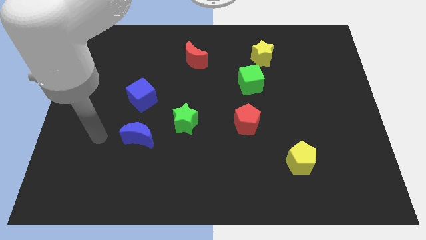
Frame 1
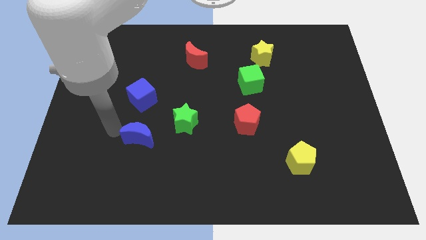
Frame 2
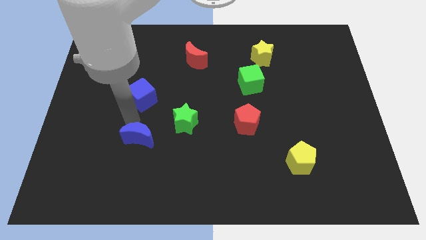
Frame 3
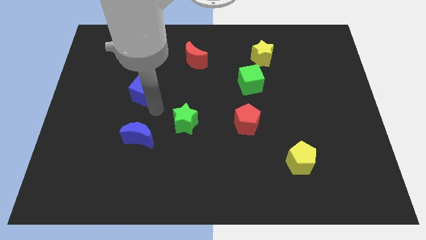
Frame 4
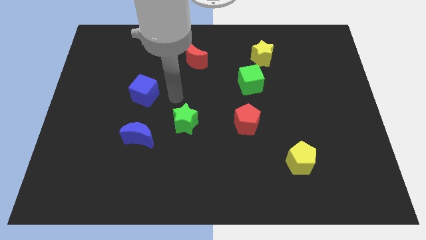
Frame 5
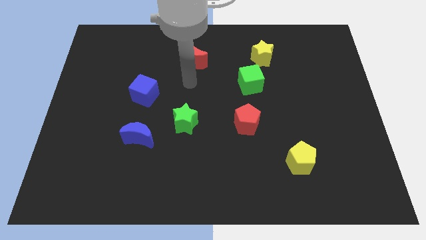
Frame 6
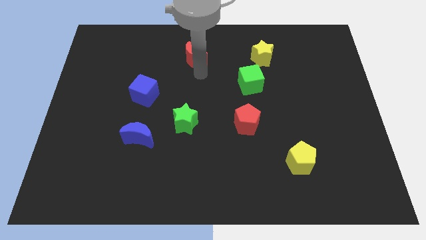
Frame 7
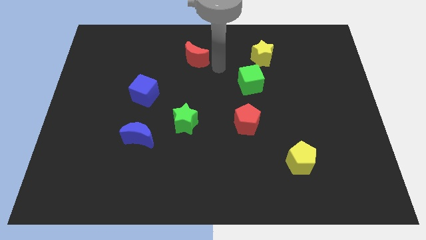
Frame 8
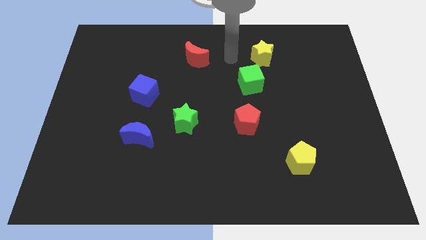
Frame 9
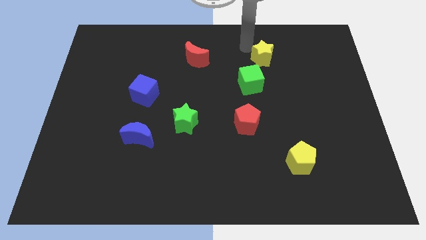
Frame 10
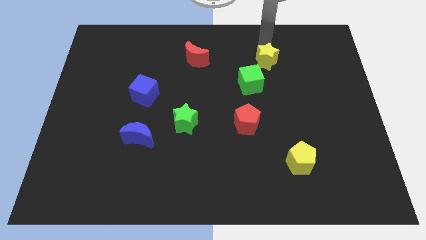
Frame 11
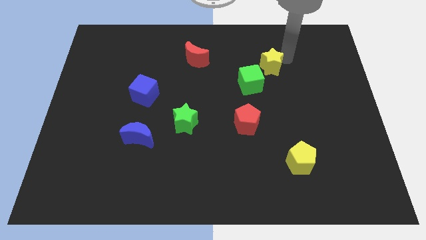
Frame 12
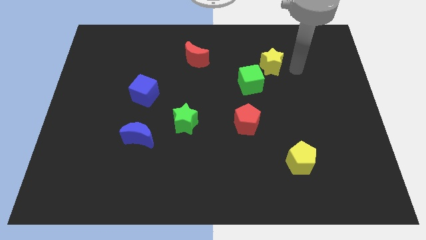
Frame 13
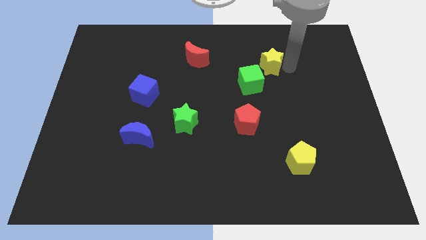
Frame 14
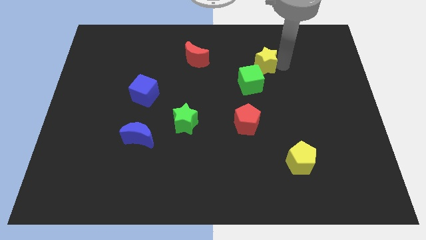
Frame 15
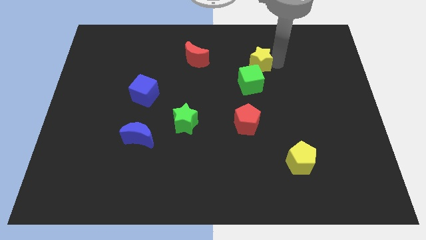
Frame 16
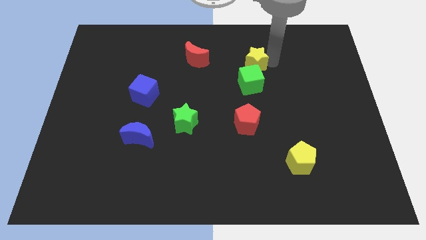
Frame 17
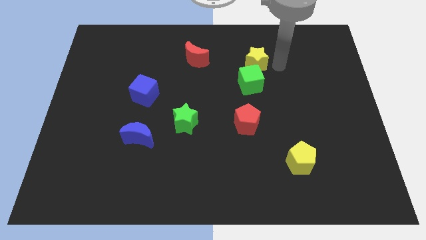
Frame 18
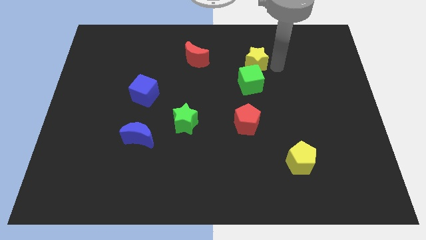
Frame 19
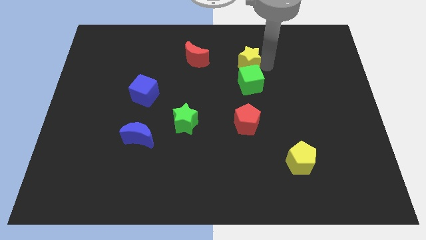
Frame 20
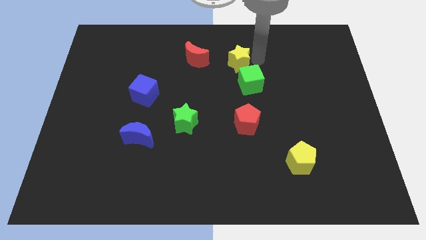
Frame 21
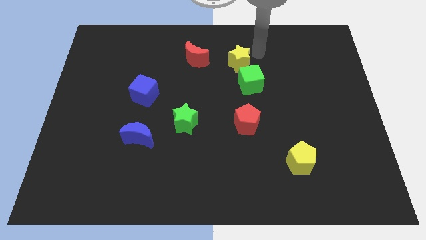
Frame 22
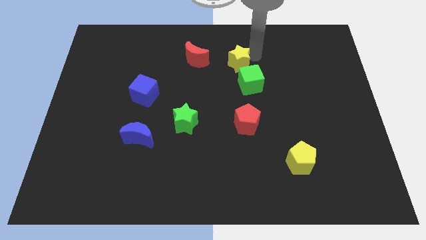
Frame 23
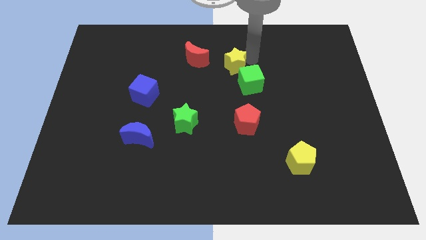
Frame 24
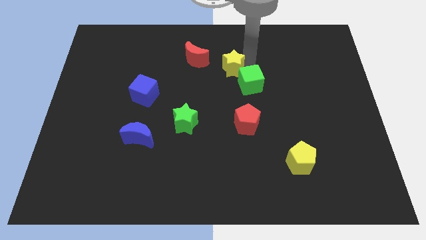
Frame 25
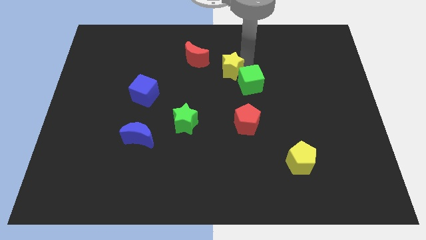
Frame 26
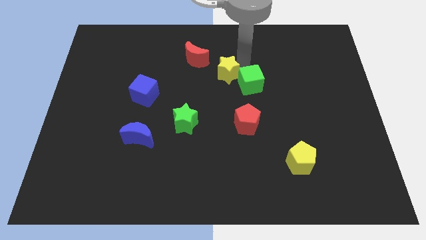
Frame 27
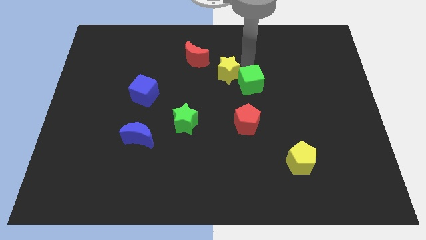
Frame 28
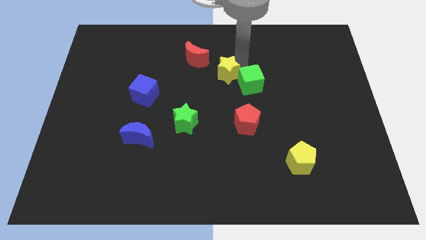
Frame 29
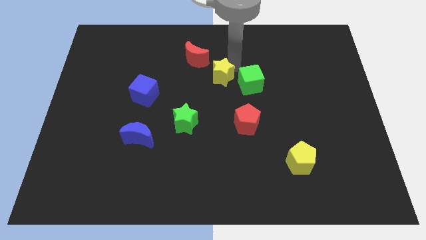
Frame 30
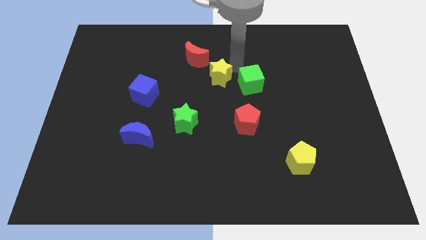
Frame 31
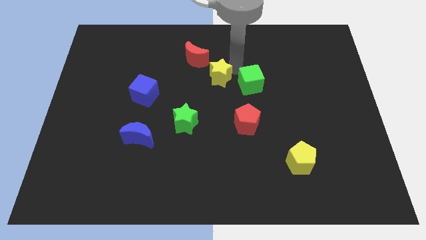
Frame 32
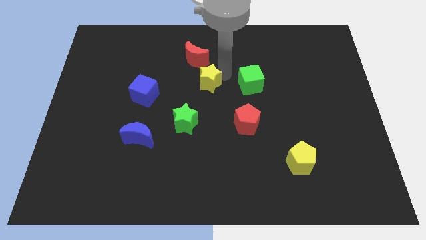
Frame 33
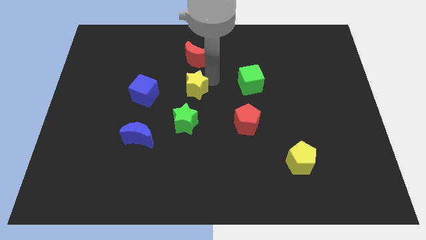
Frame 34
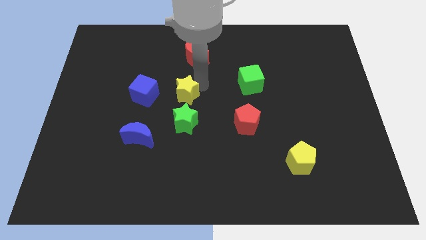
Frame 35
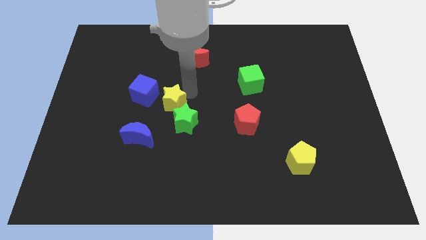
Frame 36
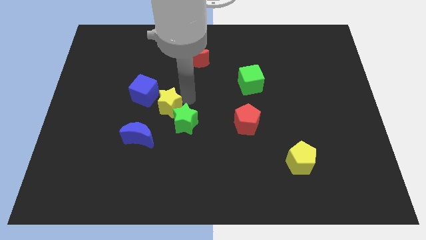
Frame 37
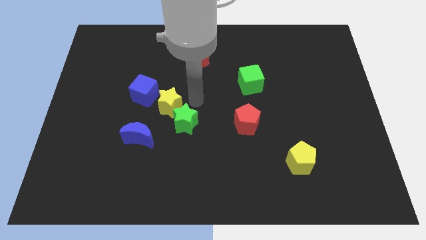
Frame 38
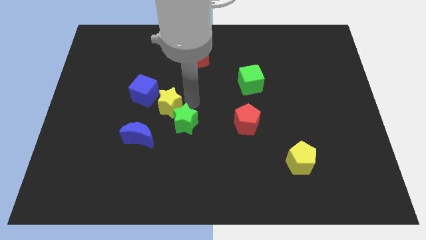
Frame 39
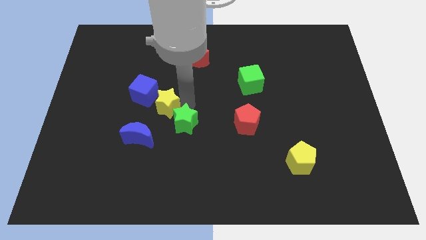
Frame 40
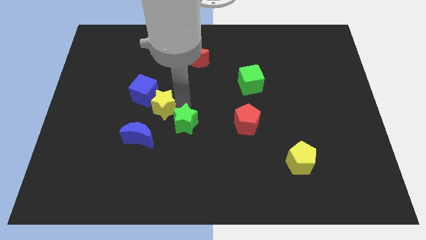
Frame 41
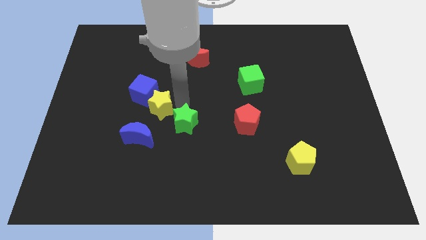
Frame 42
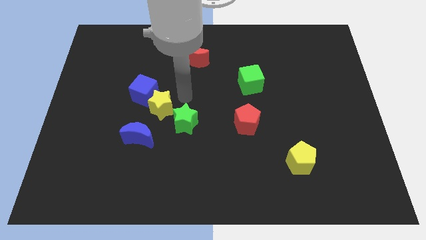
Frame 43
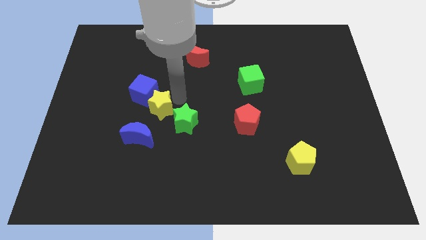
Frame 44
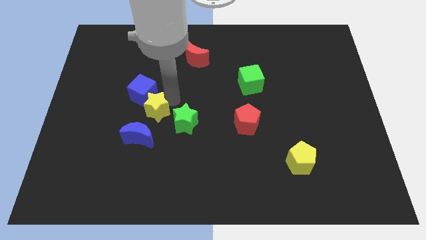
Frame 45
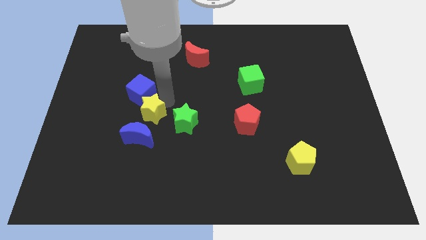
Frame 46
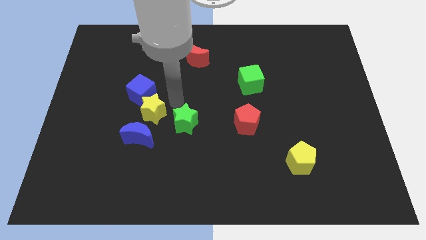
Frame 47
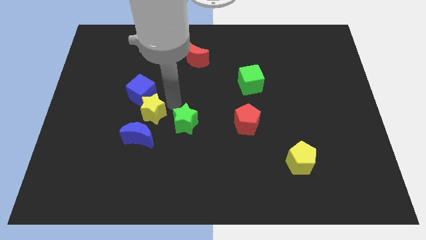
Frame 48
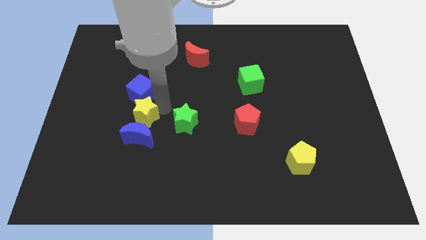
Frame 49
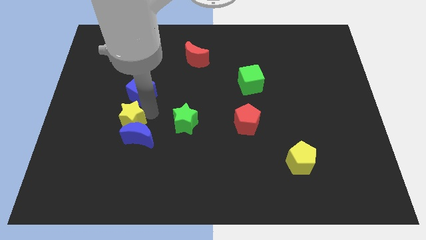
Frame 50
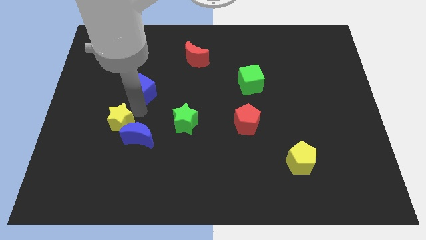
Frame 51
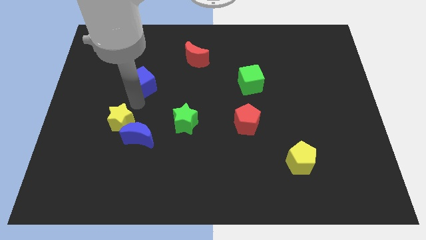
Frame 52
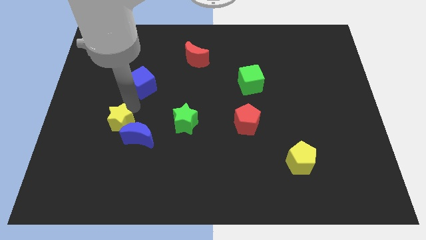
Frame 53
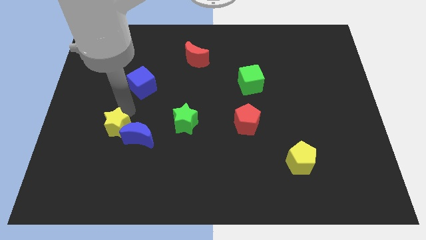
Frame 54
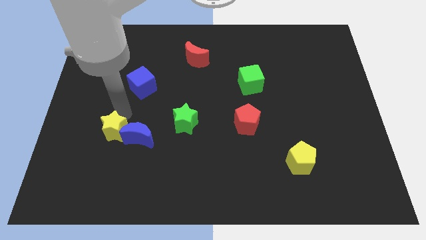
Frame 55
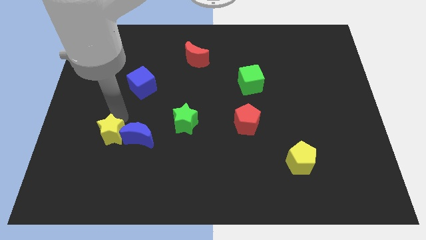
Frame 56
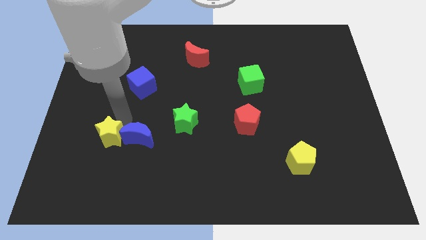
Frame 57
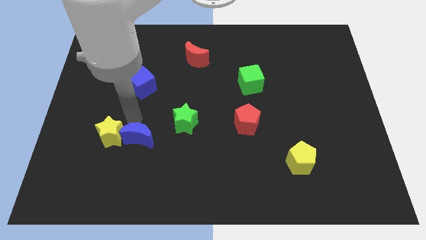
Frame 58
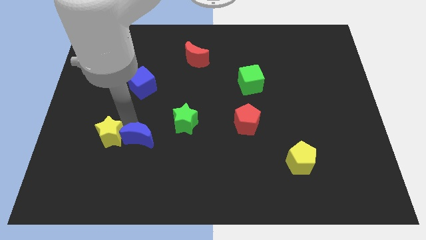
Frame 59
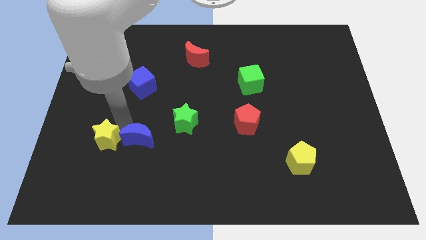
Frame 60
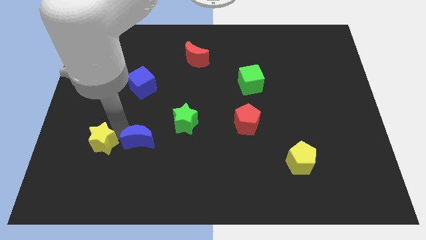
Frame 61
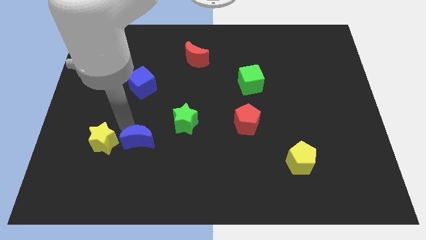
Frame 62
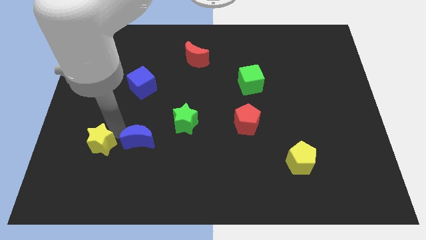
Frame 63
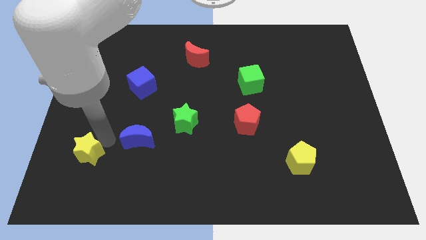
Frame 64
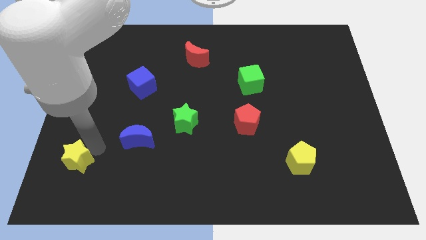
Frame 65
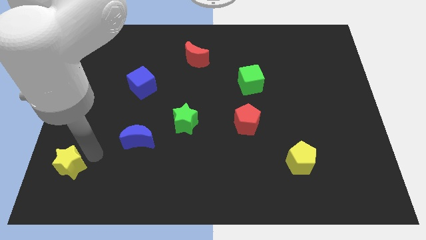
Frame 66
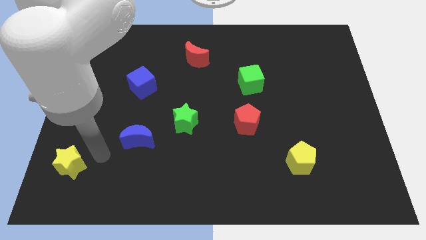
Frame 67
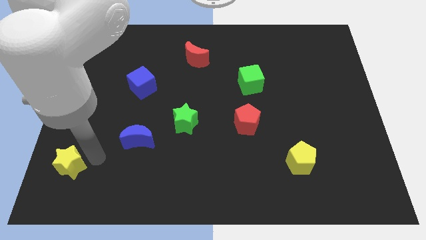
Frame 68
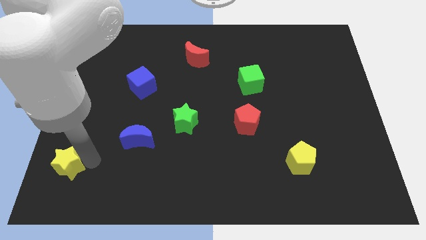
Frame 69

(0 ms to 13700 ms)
move the yellow star to the lower left corner
